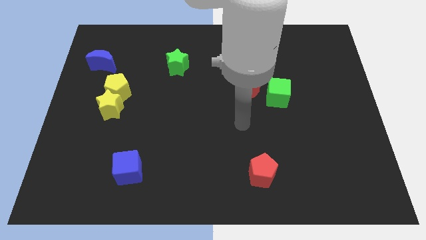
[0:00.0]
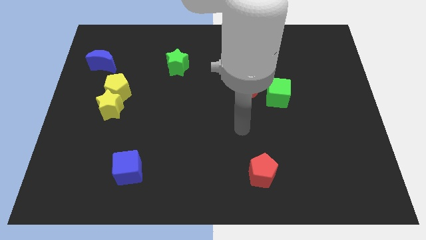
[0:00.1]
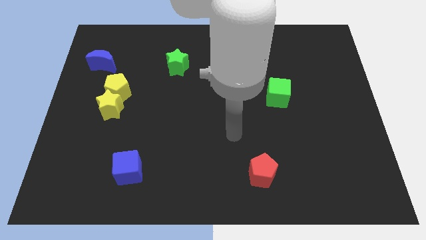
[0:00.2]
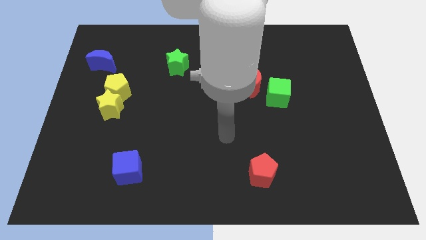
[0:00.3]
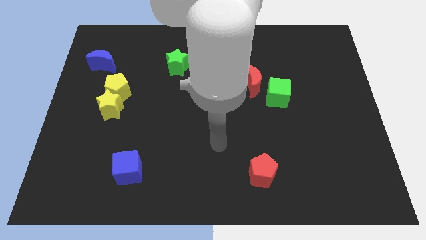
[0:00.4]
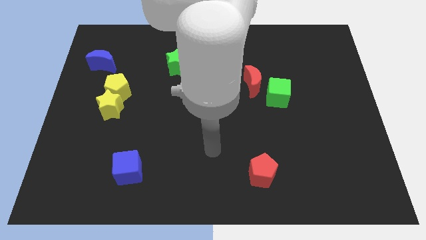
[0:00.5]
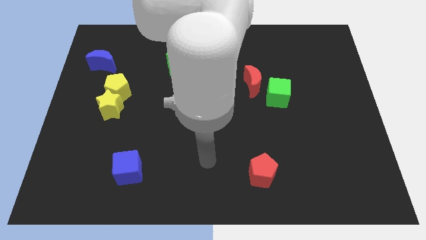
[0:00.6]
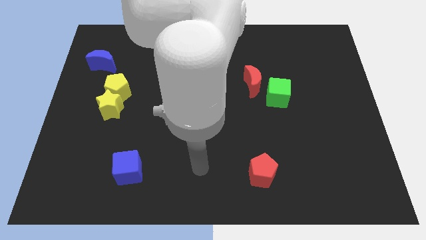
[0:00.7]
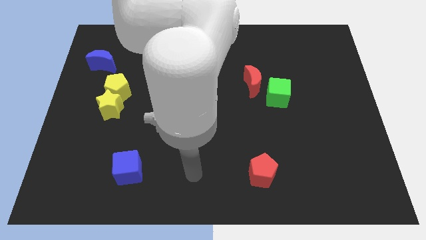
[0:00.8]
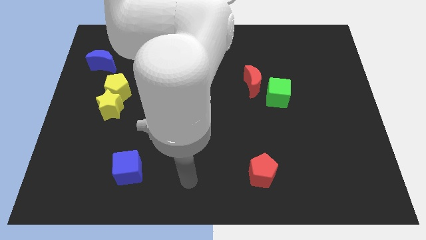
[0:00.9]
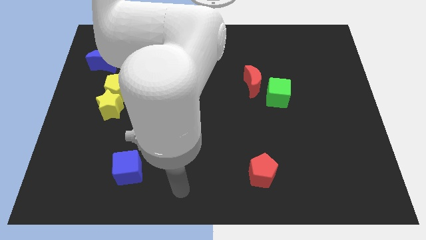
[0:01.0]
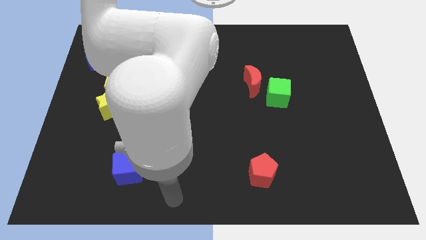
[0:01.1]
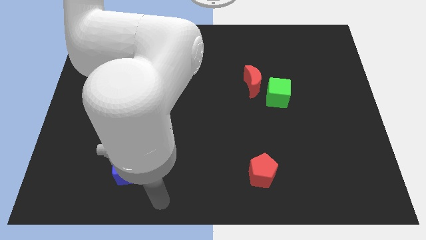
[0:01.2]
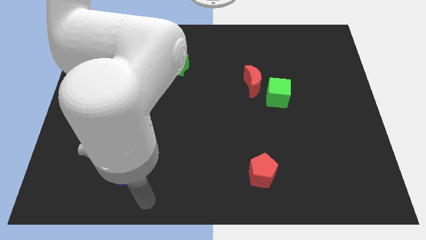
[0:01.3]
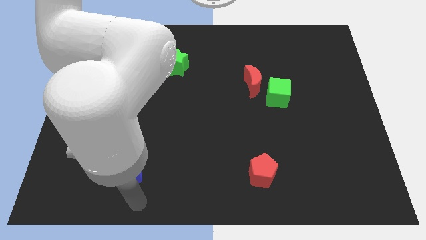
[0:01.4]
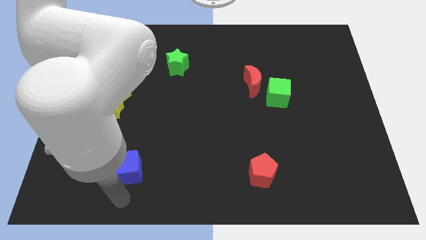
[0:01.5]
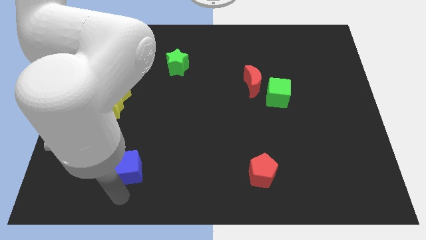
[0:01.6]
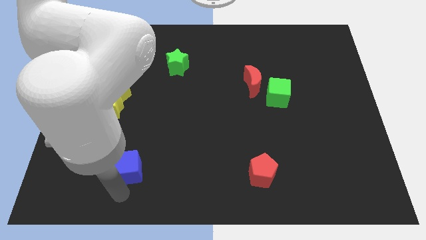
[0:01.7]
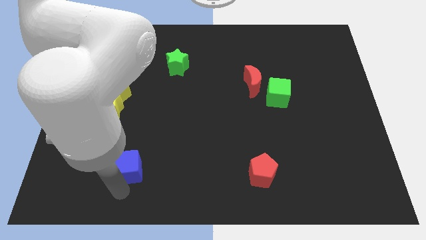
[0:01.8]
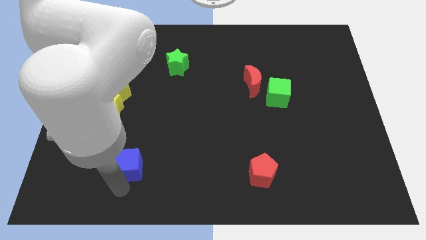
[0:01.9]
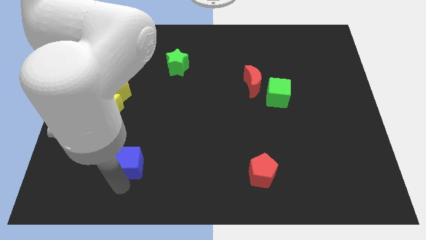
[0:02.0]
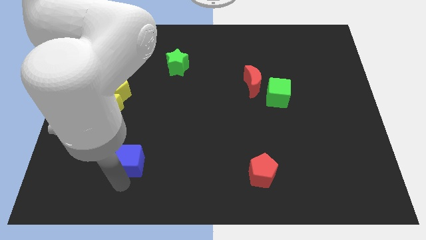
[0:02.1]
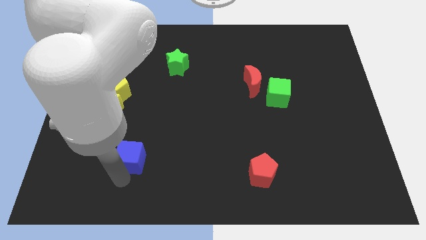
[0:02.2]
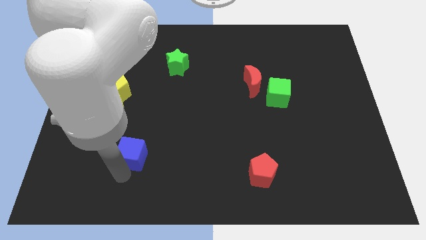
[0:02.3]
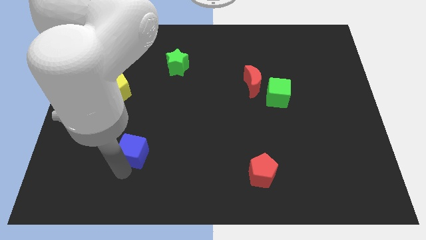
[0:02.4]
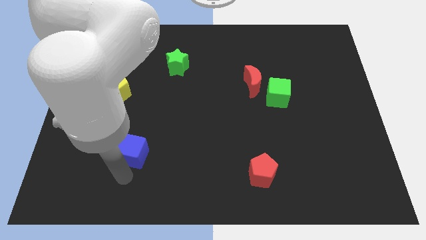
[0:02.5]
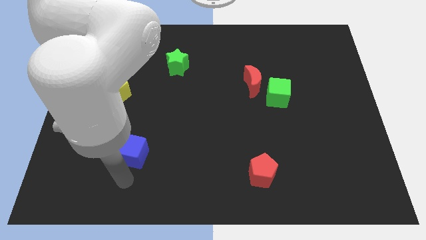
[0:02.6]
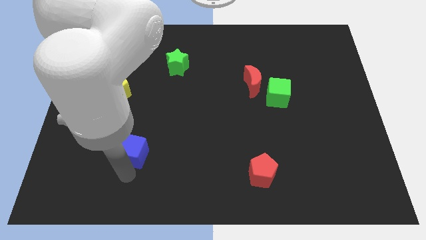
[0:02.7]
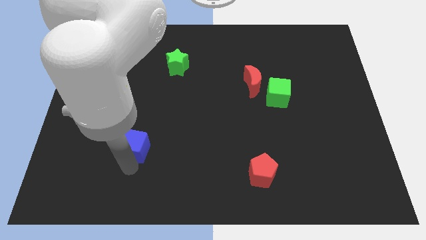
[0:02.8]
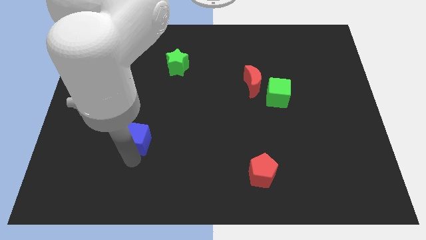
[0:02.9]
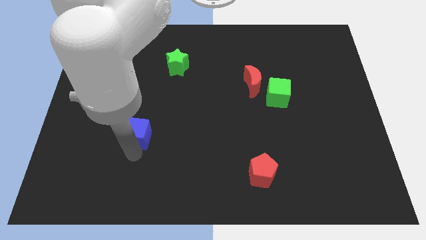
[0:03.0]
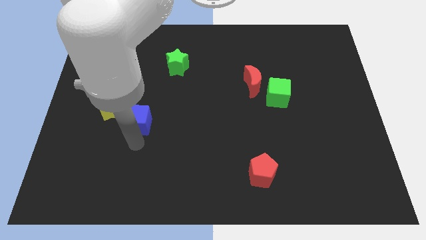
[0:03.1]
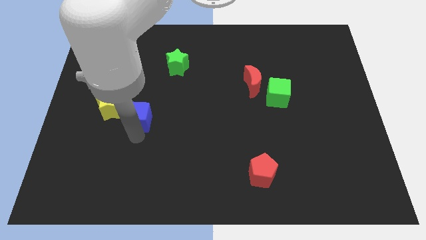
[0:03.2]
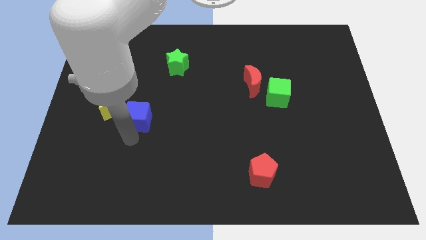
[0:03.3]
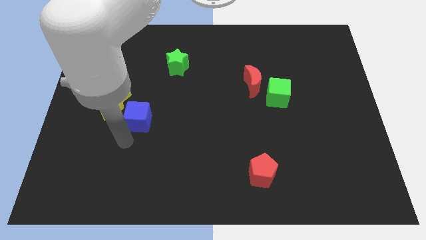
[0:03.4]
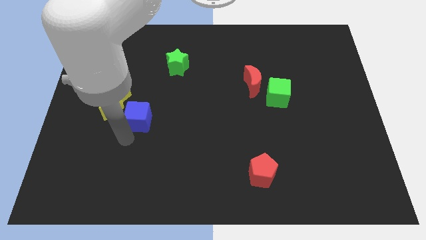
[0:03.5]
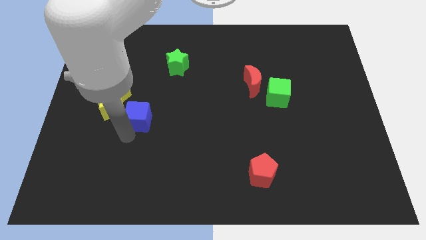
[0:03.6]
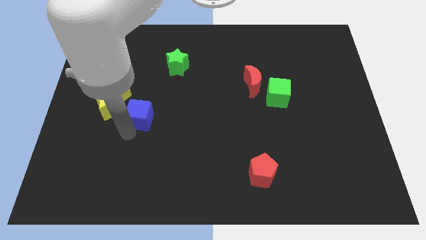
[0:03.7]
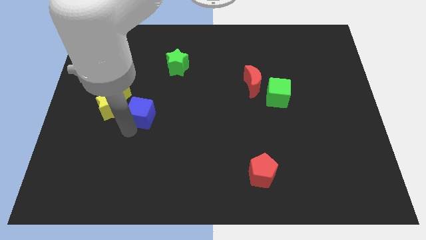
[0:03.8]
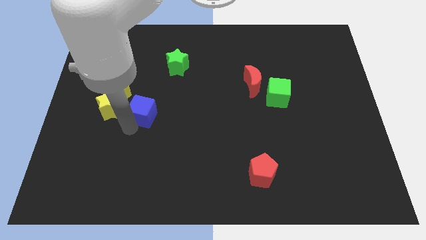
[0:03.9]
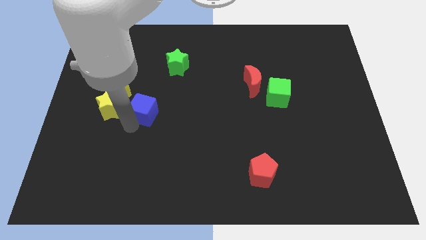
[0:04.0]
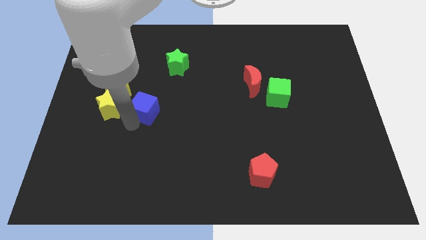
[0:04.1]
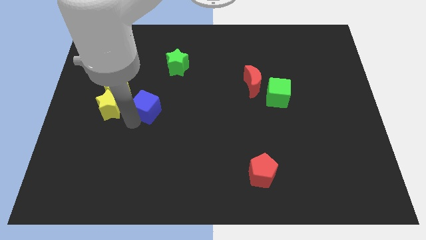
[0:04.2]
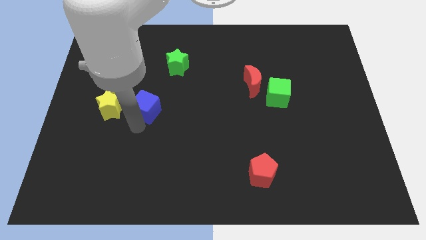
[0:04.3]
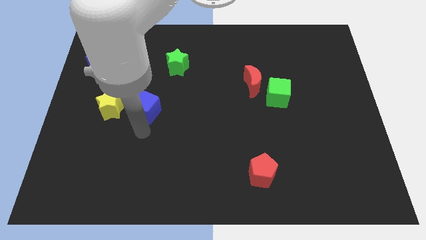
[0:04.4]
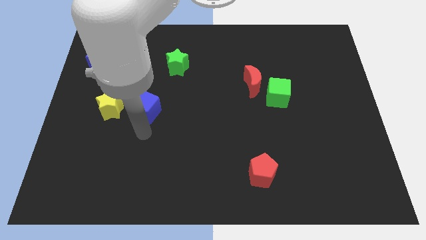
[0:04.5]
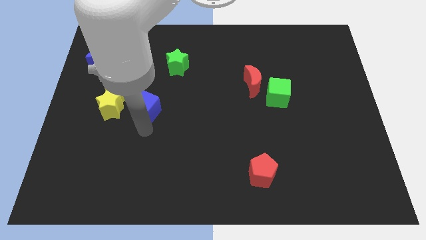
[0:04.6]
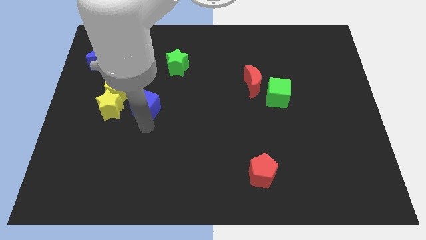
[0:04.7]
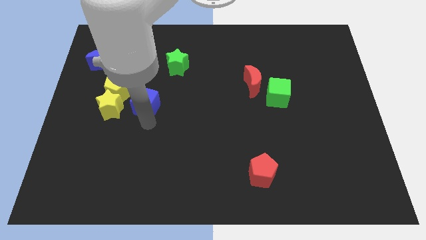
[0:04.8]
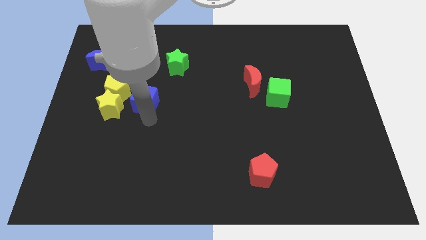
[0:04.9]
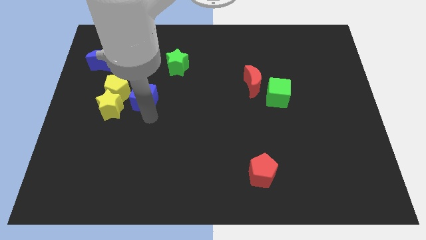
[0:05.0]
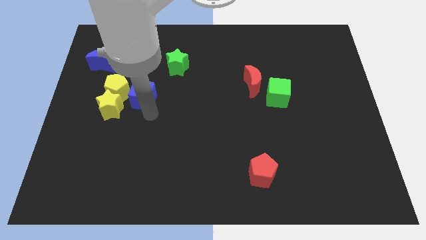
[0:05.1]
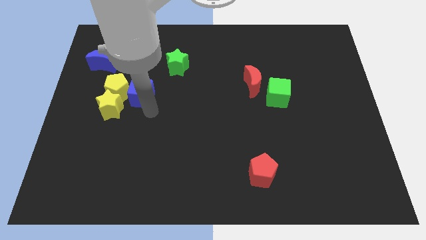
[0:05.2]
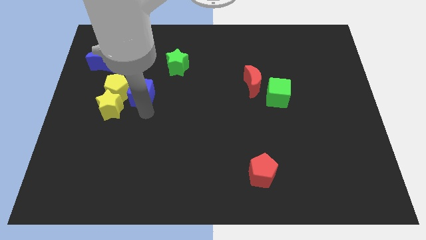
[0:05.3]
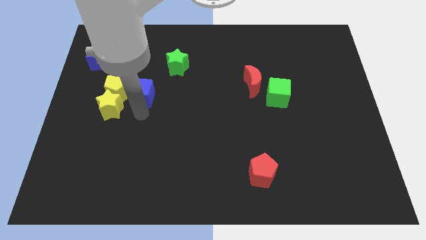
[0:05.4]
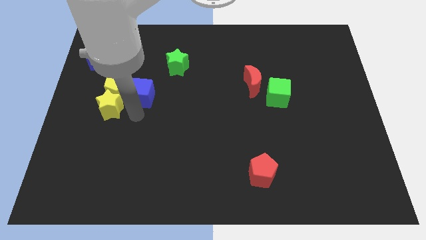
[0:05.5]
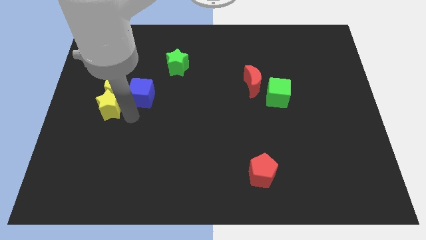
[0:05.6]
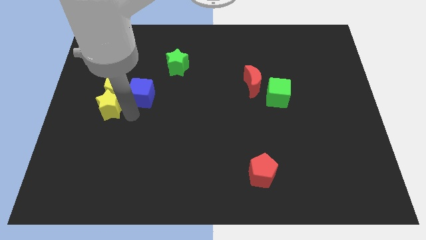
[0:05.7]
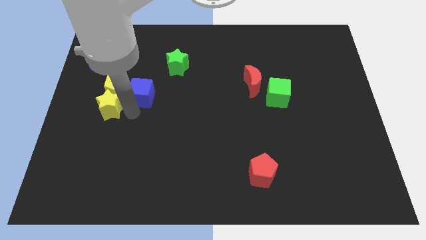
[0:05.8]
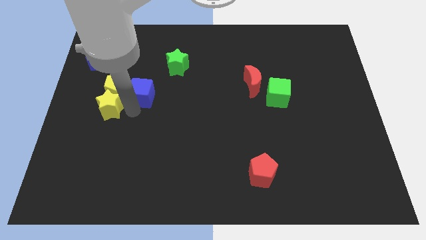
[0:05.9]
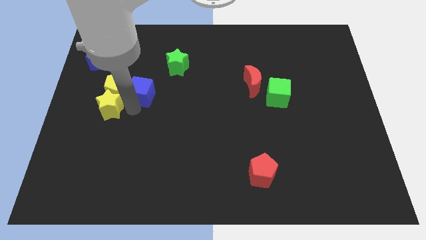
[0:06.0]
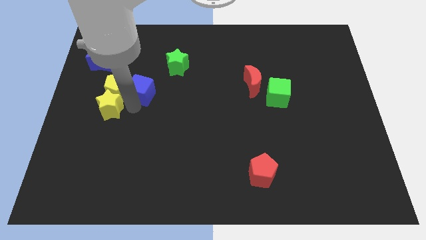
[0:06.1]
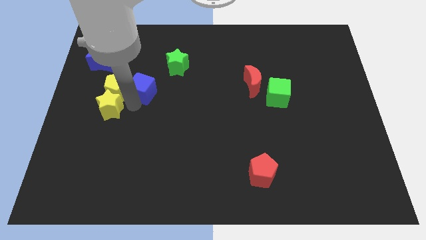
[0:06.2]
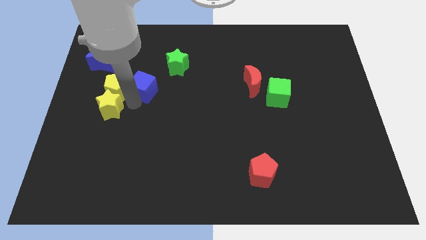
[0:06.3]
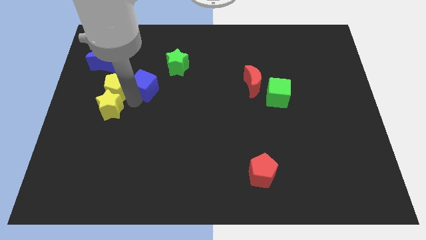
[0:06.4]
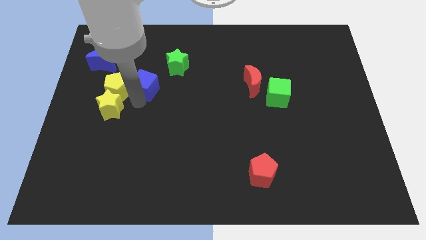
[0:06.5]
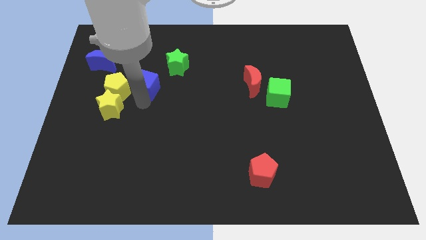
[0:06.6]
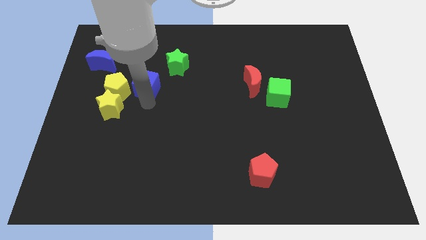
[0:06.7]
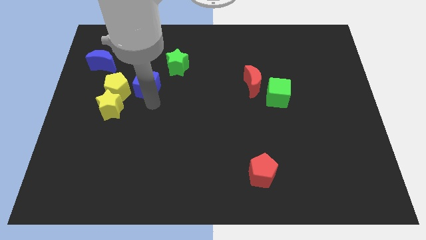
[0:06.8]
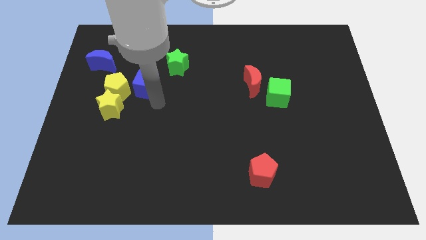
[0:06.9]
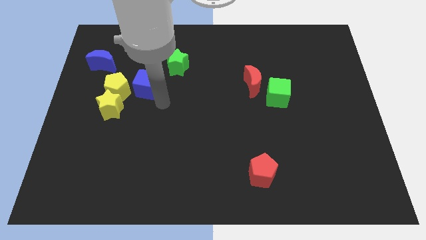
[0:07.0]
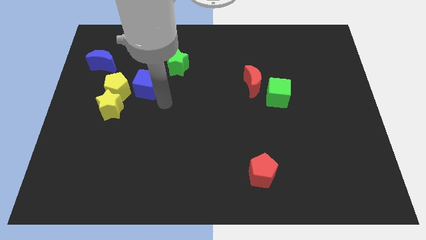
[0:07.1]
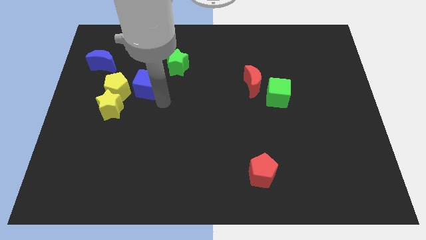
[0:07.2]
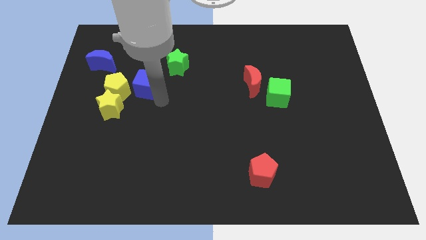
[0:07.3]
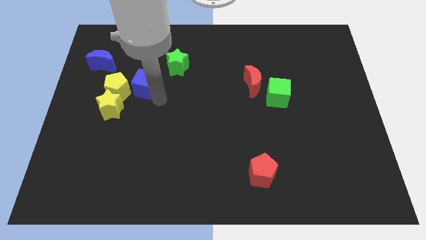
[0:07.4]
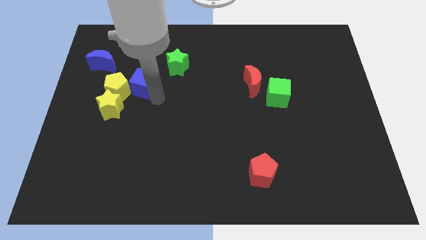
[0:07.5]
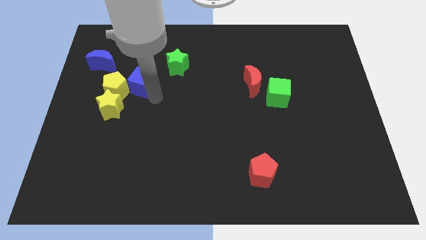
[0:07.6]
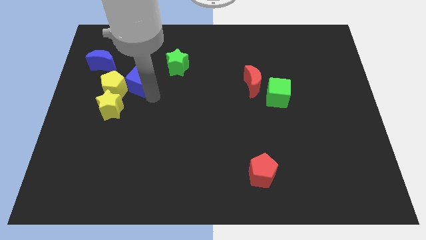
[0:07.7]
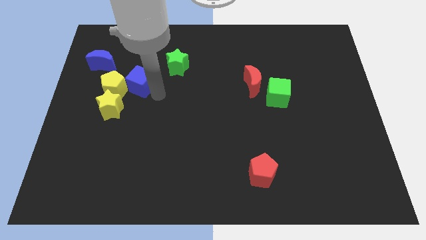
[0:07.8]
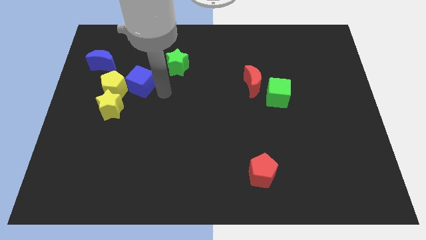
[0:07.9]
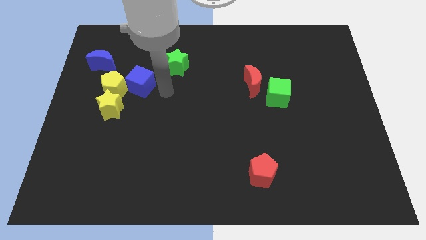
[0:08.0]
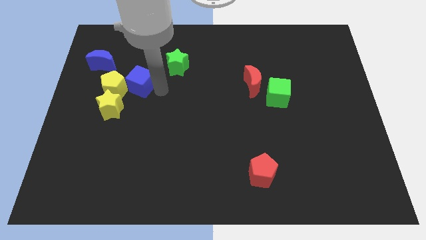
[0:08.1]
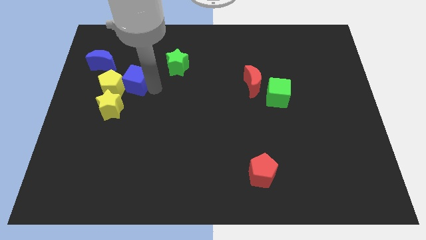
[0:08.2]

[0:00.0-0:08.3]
put the blue cube to the bottom right side of the blue moon
